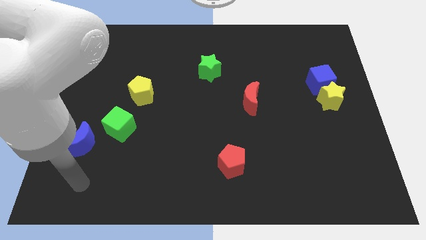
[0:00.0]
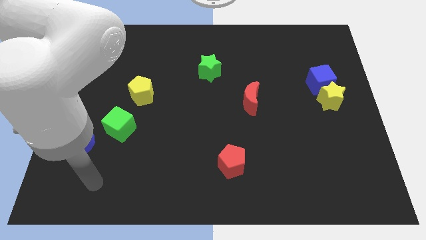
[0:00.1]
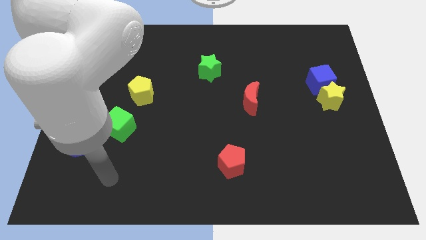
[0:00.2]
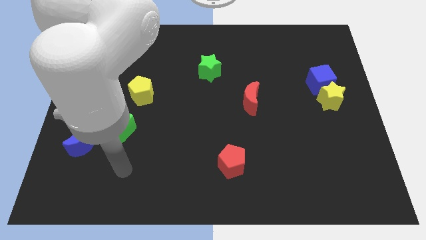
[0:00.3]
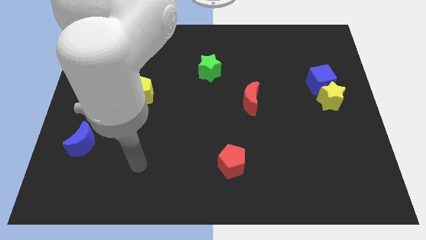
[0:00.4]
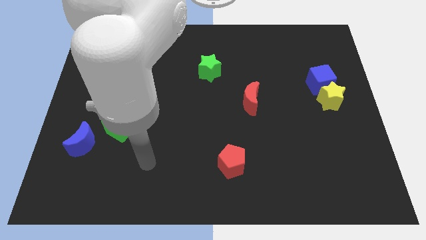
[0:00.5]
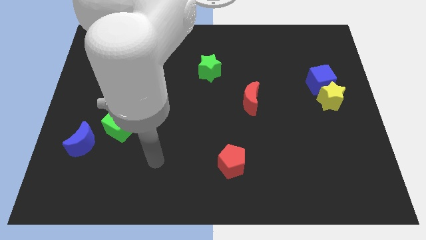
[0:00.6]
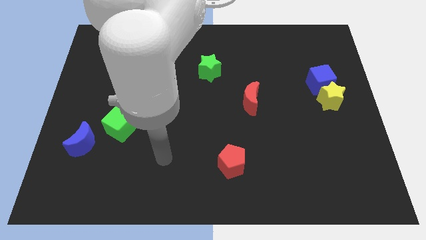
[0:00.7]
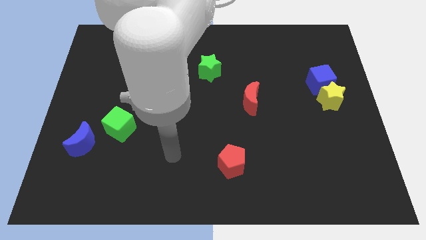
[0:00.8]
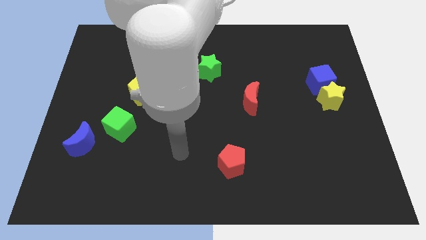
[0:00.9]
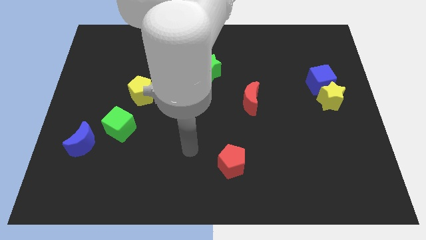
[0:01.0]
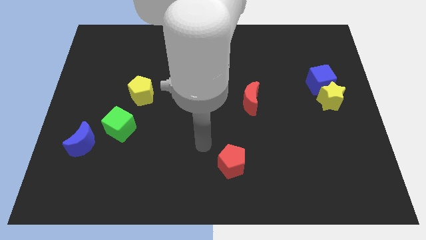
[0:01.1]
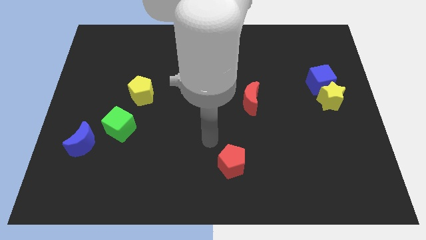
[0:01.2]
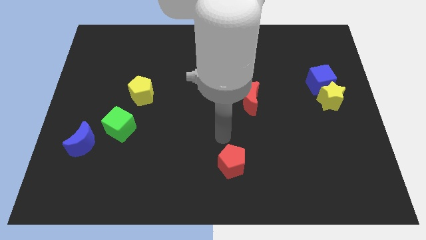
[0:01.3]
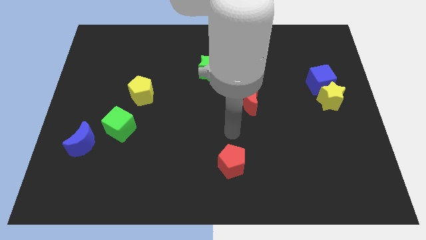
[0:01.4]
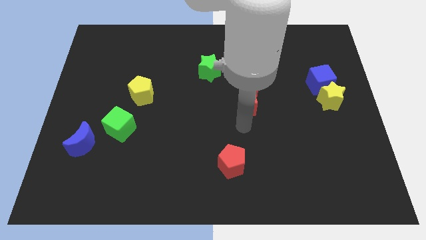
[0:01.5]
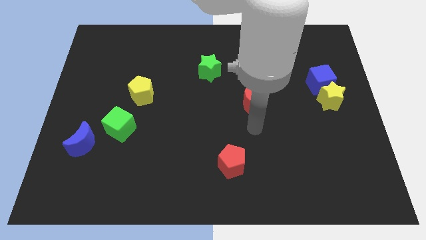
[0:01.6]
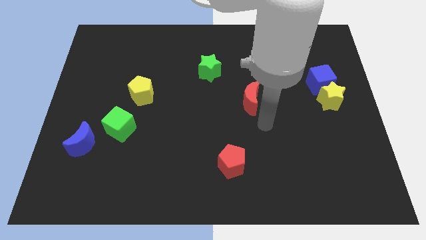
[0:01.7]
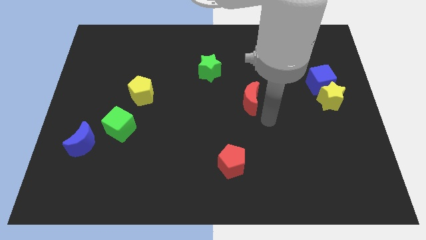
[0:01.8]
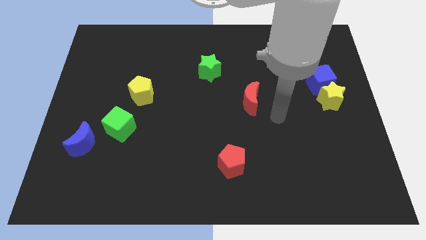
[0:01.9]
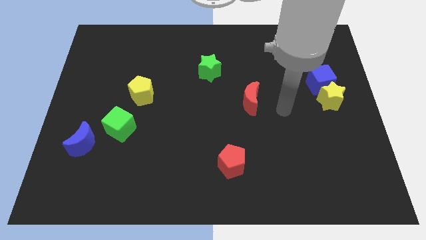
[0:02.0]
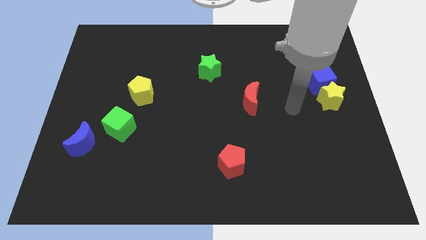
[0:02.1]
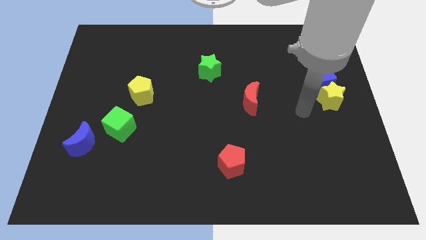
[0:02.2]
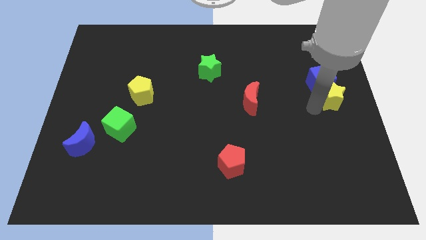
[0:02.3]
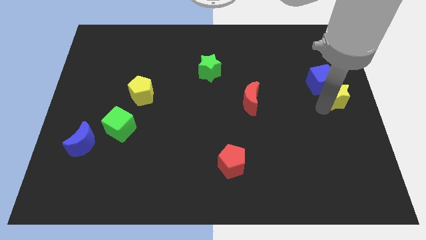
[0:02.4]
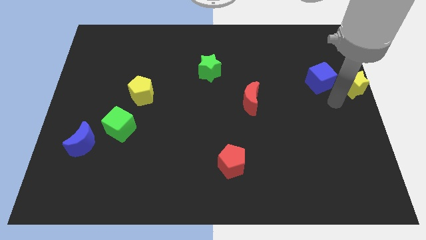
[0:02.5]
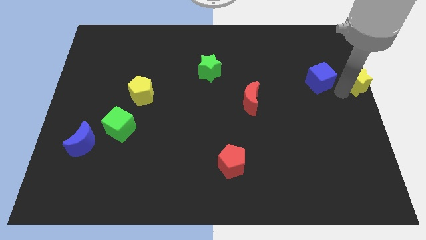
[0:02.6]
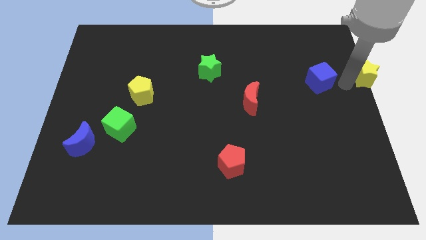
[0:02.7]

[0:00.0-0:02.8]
pull the blue cube apart from the yellow star

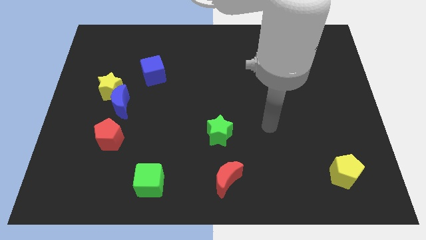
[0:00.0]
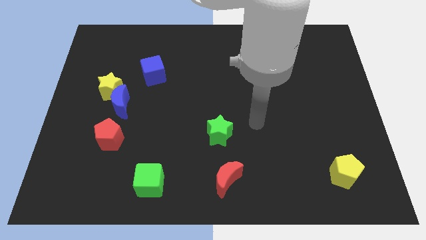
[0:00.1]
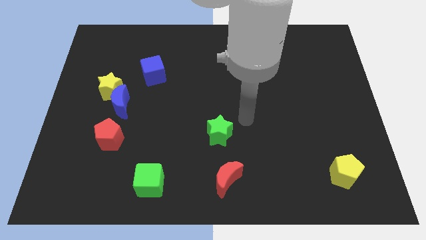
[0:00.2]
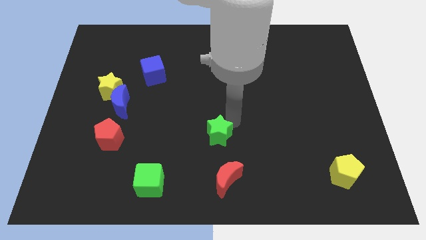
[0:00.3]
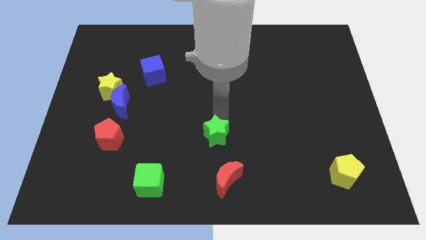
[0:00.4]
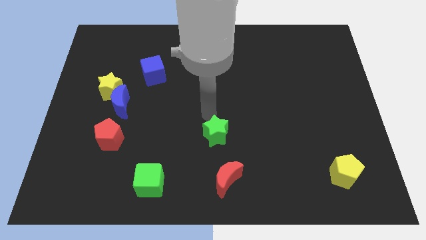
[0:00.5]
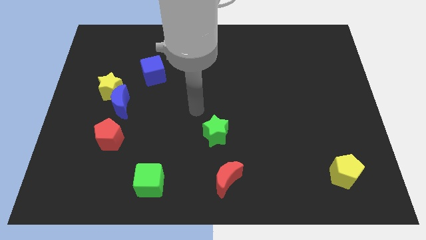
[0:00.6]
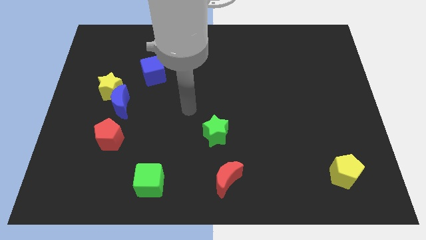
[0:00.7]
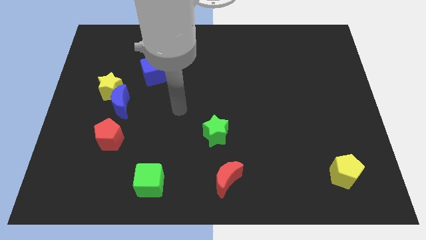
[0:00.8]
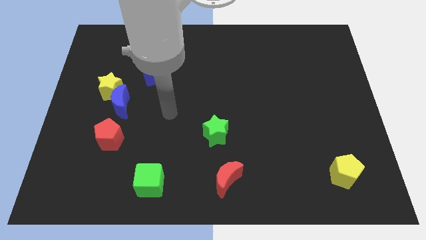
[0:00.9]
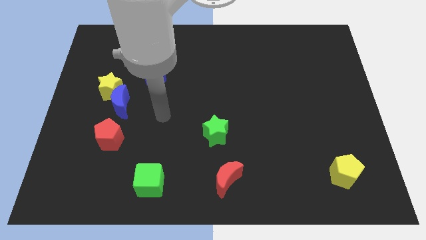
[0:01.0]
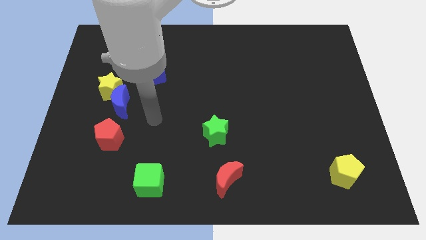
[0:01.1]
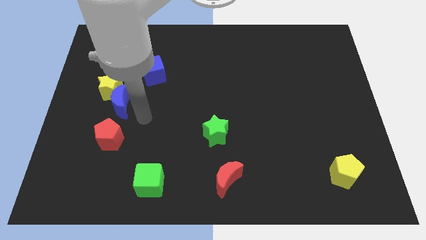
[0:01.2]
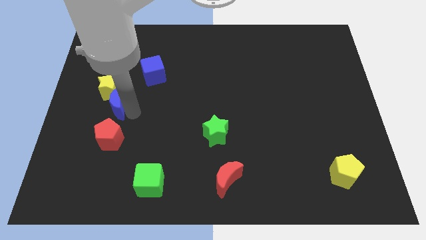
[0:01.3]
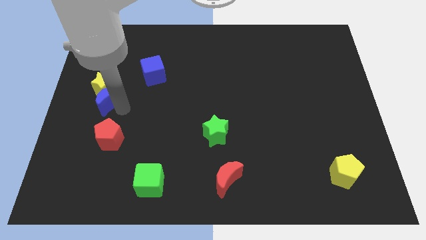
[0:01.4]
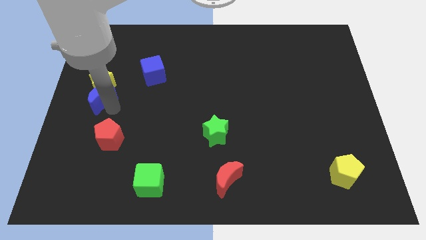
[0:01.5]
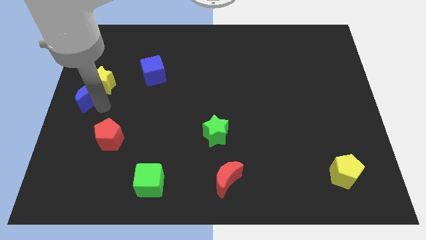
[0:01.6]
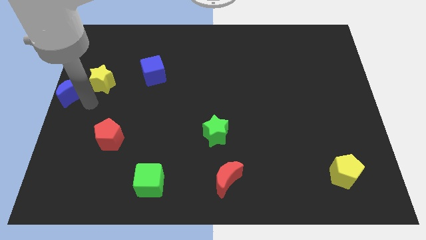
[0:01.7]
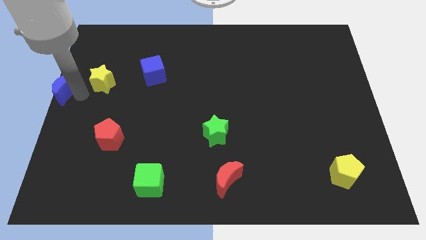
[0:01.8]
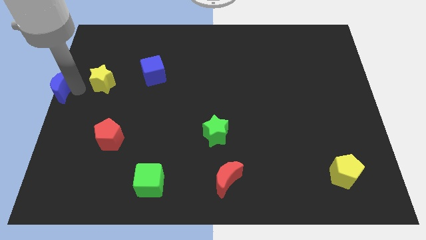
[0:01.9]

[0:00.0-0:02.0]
pull the yellow star apart from the blue moon

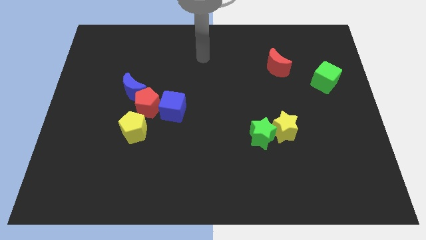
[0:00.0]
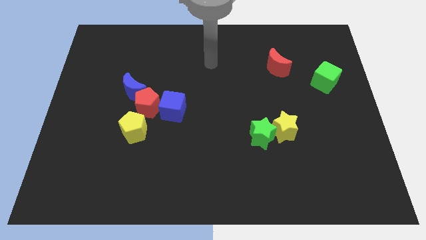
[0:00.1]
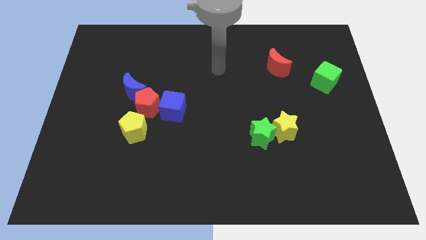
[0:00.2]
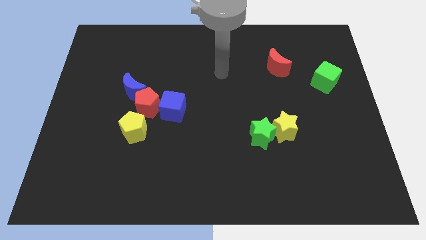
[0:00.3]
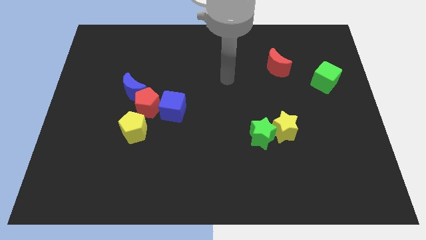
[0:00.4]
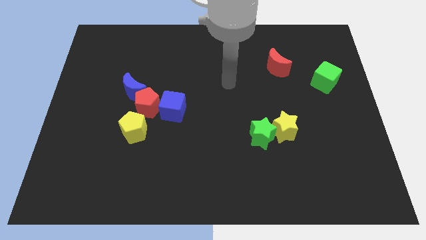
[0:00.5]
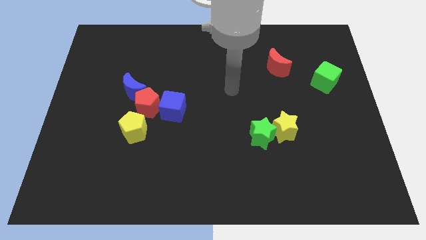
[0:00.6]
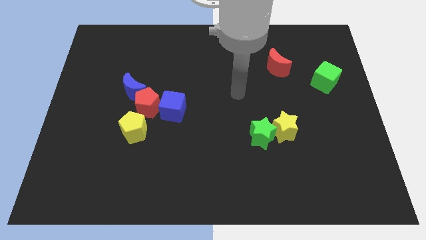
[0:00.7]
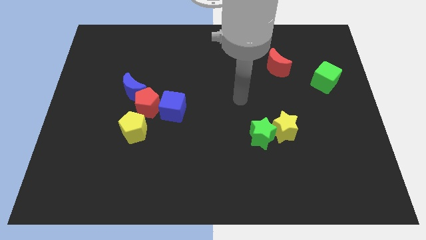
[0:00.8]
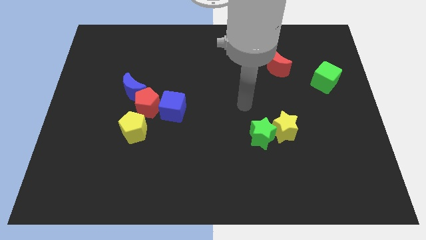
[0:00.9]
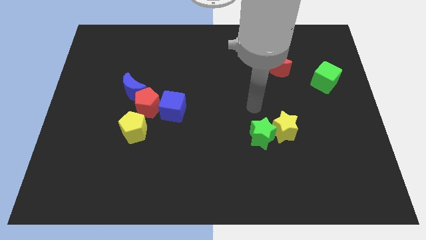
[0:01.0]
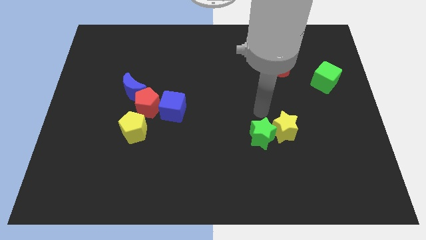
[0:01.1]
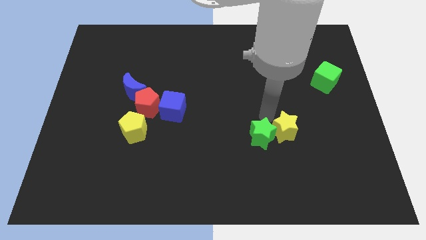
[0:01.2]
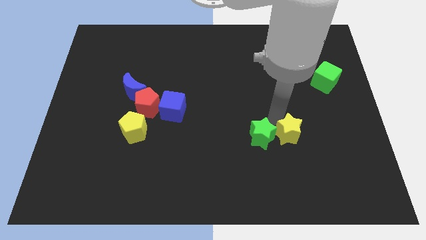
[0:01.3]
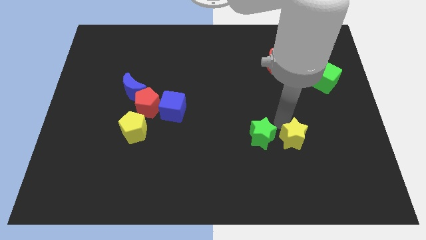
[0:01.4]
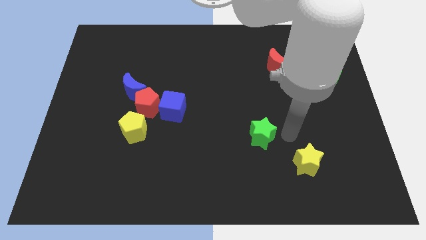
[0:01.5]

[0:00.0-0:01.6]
move the green star away from the yellow star

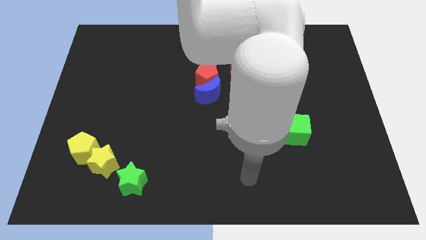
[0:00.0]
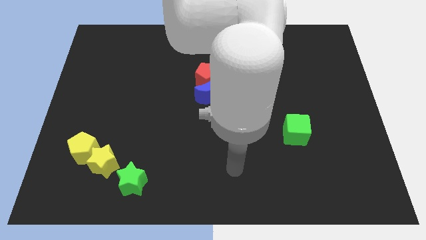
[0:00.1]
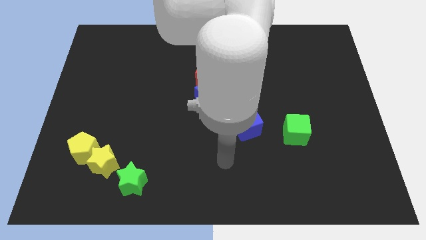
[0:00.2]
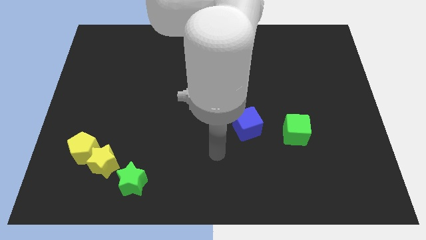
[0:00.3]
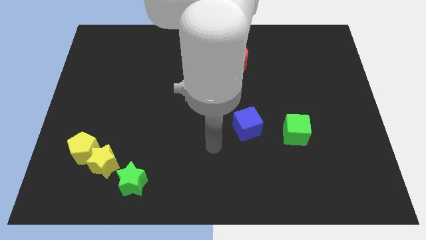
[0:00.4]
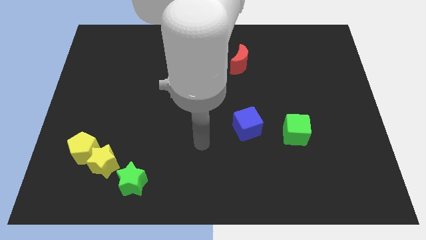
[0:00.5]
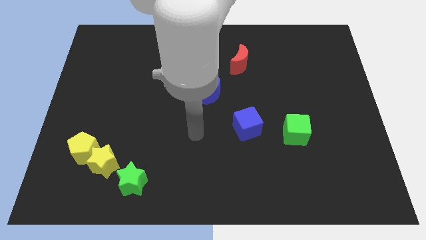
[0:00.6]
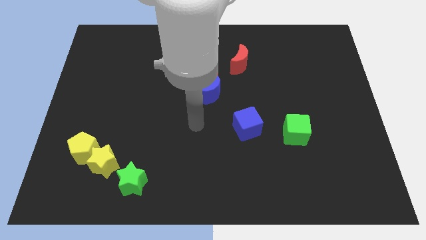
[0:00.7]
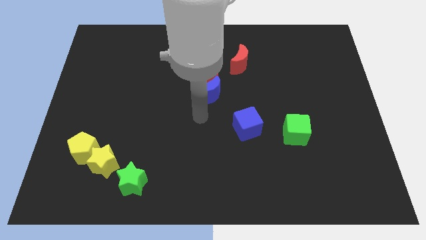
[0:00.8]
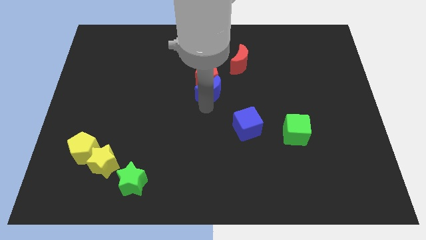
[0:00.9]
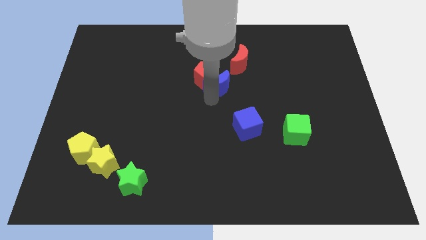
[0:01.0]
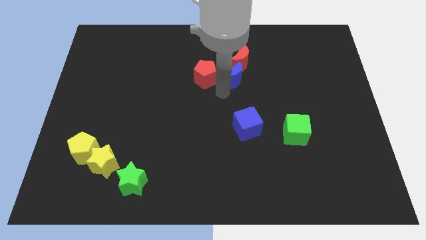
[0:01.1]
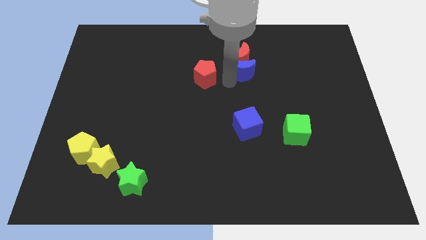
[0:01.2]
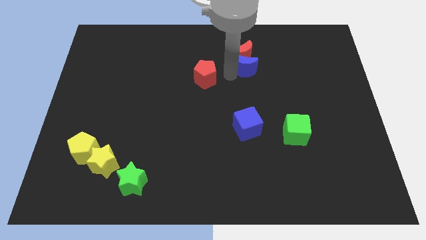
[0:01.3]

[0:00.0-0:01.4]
pull the red pentagon apart from the blue moon

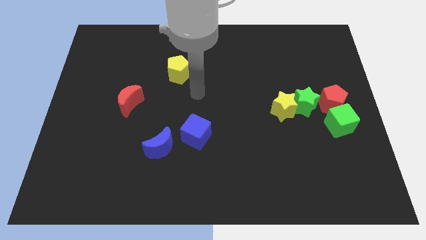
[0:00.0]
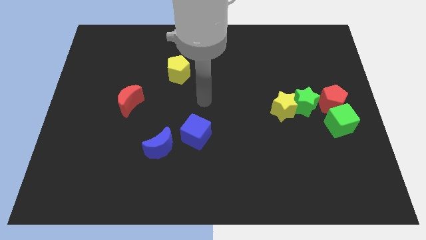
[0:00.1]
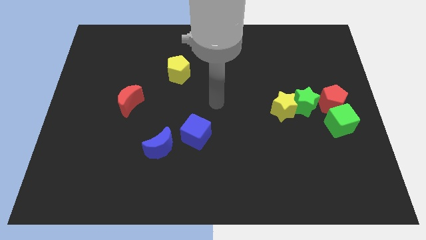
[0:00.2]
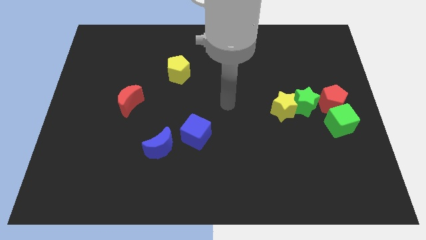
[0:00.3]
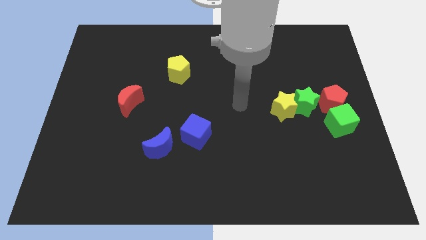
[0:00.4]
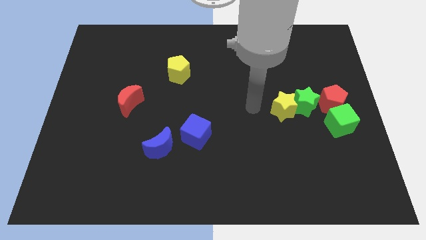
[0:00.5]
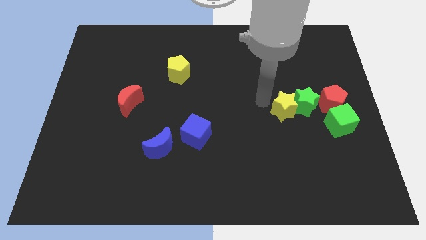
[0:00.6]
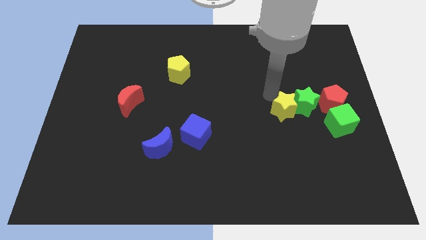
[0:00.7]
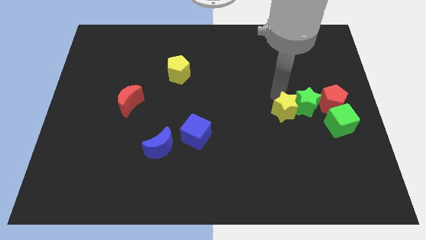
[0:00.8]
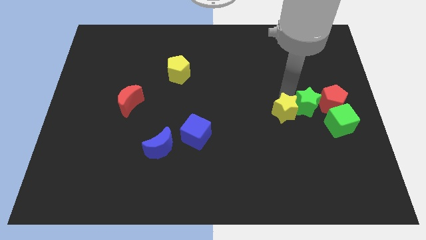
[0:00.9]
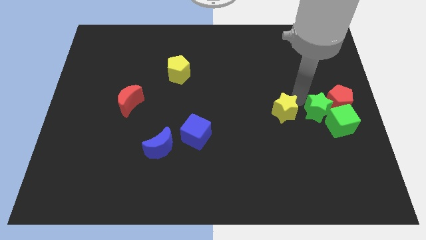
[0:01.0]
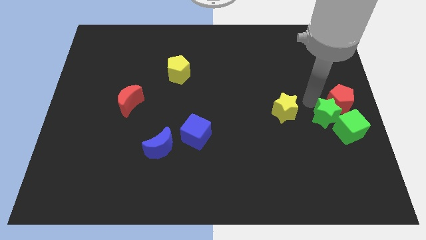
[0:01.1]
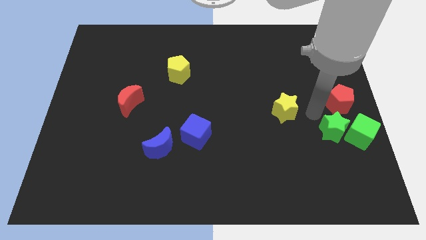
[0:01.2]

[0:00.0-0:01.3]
pull the yellow star apart from the green star

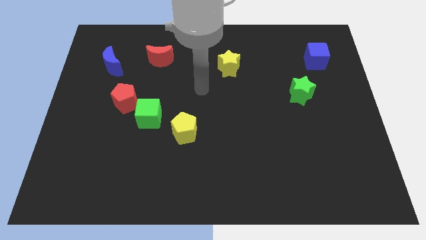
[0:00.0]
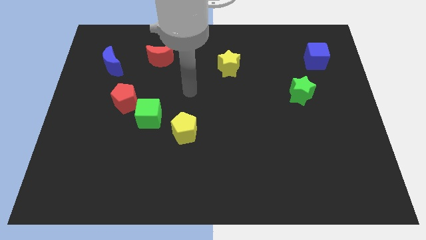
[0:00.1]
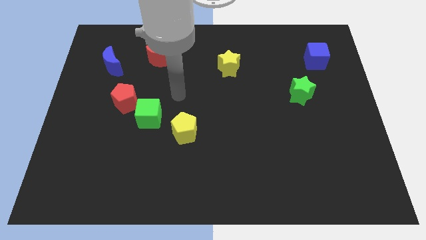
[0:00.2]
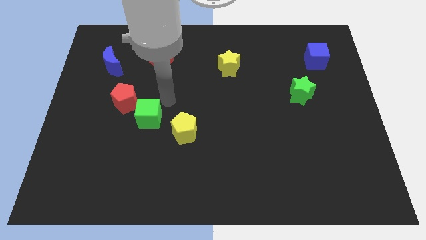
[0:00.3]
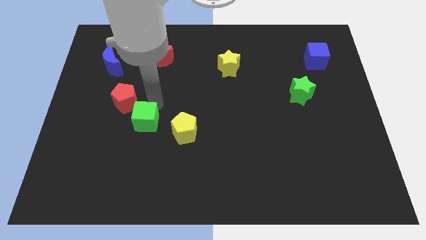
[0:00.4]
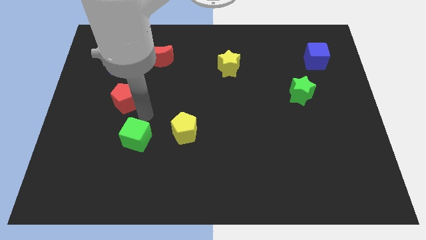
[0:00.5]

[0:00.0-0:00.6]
pull the red pentagon apart from the green cube
